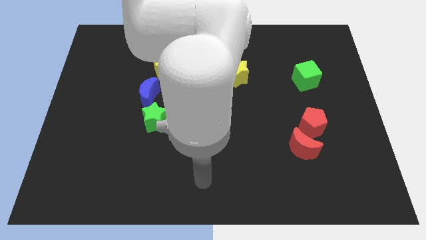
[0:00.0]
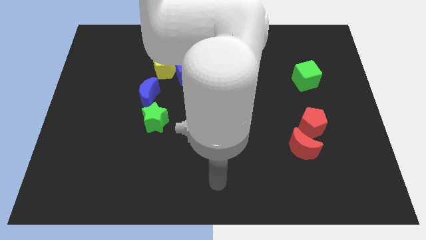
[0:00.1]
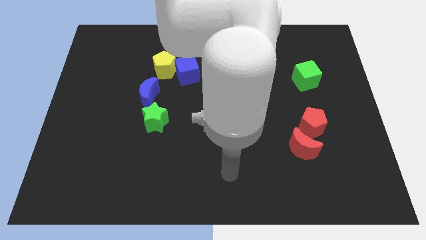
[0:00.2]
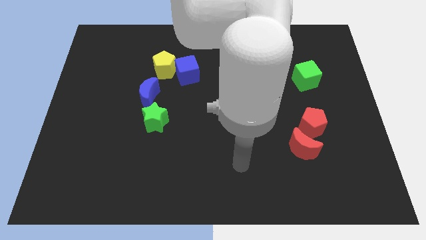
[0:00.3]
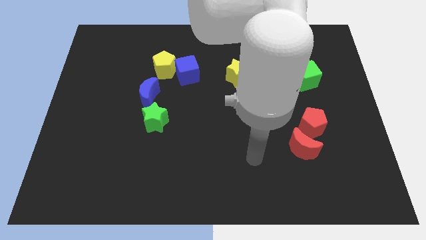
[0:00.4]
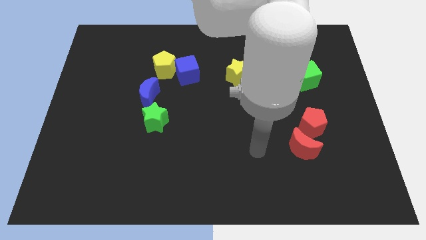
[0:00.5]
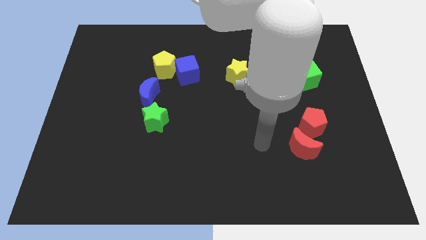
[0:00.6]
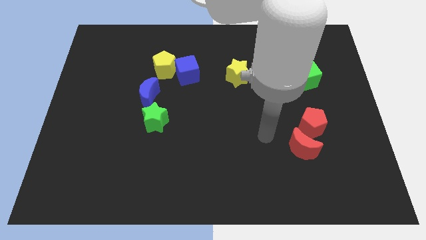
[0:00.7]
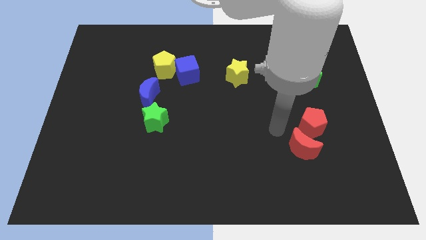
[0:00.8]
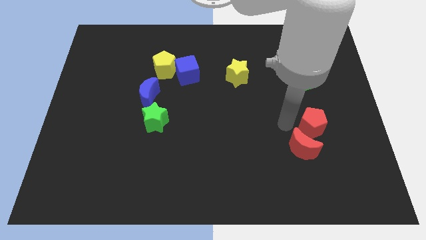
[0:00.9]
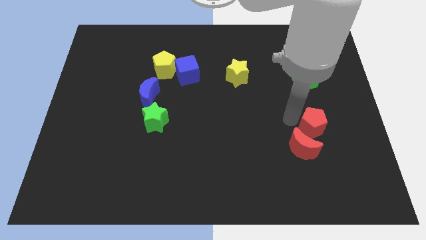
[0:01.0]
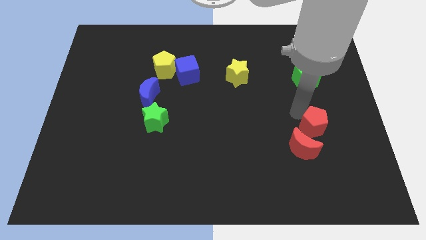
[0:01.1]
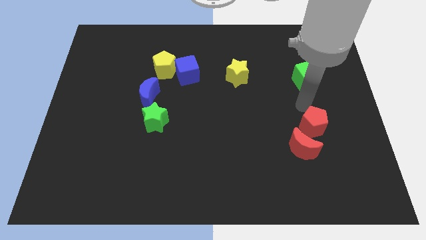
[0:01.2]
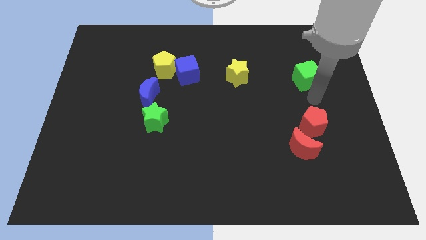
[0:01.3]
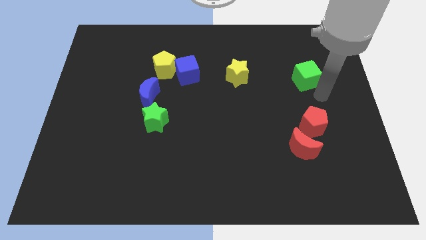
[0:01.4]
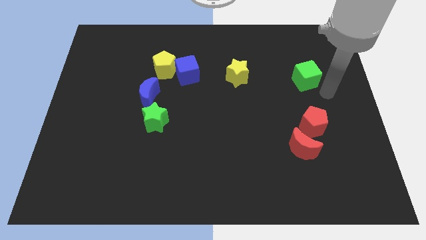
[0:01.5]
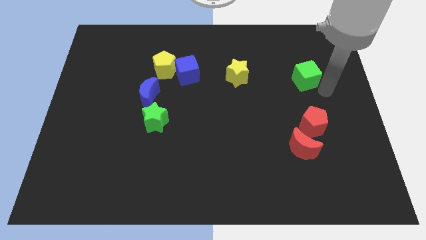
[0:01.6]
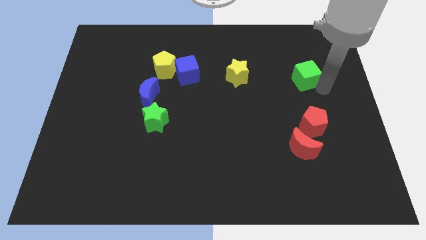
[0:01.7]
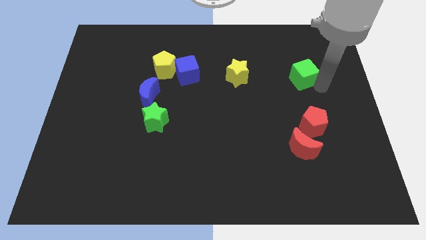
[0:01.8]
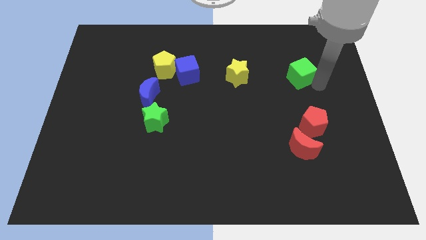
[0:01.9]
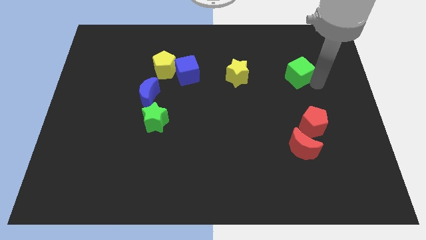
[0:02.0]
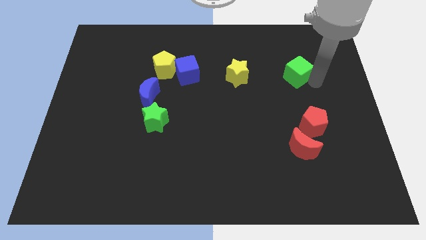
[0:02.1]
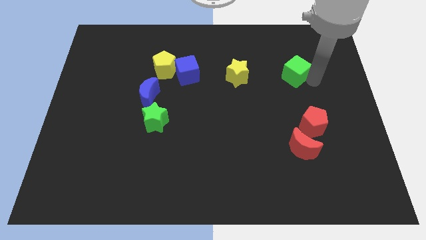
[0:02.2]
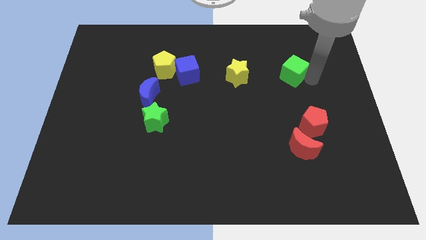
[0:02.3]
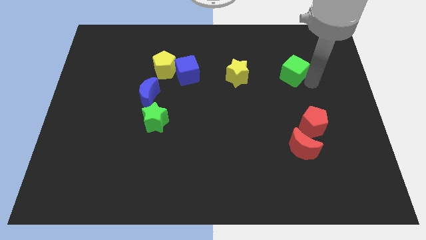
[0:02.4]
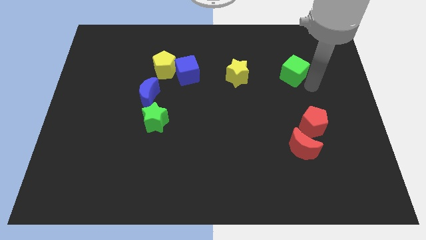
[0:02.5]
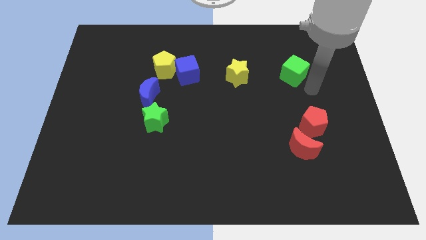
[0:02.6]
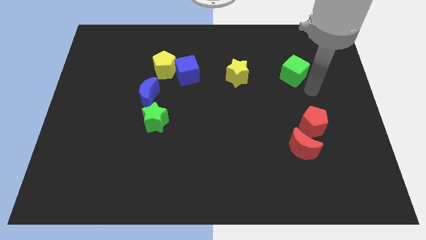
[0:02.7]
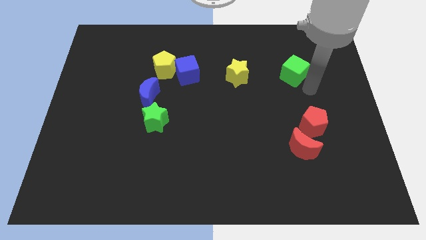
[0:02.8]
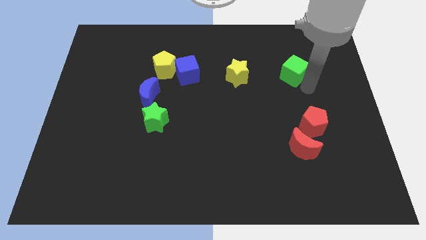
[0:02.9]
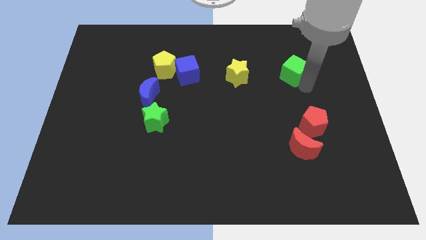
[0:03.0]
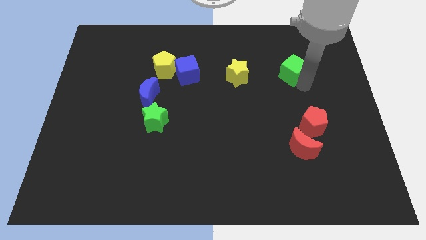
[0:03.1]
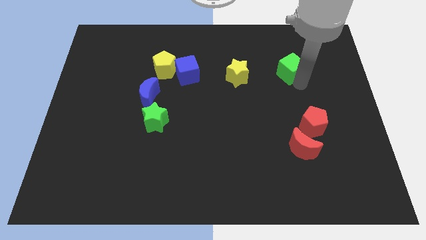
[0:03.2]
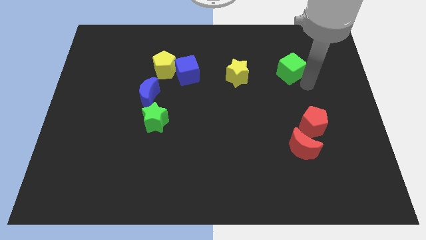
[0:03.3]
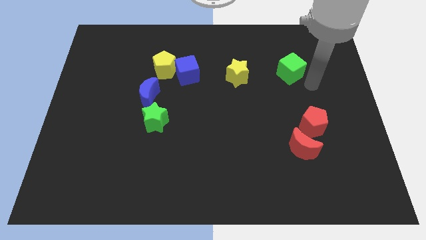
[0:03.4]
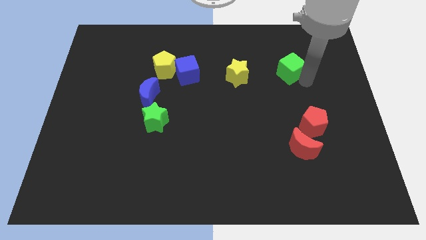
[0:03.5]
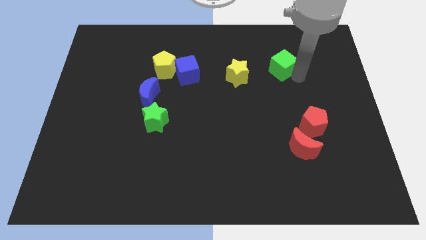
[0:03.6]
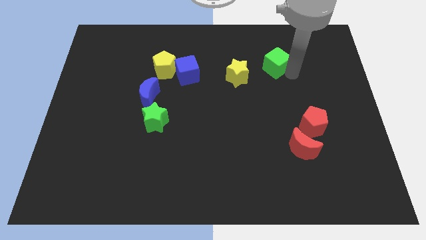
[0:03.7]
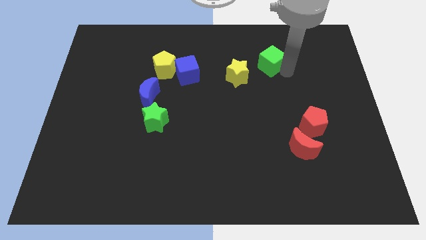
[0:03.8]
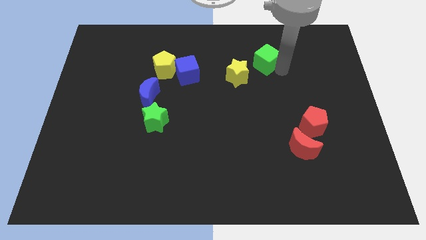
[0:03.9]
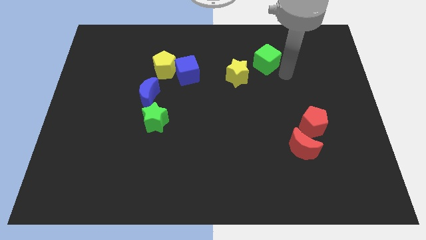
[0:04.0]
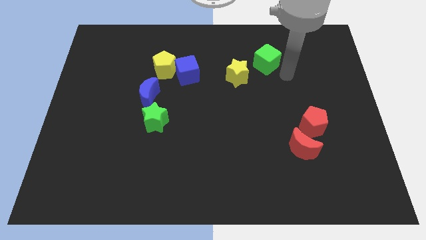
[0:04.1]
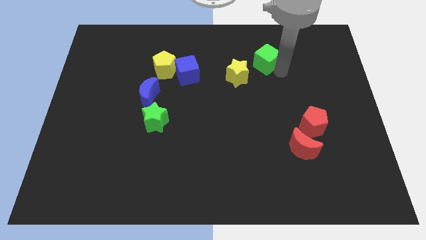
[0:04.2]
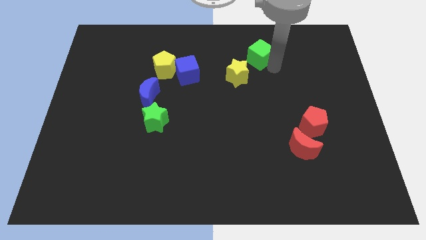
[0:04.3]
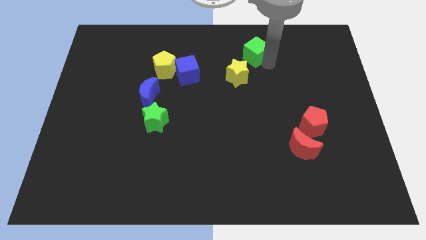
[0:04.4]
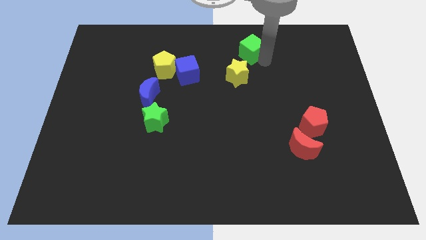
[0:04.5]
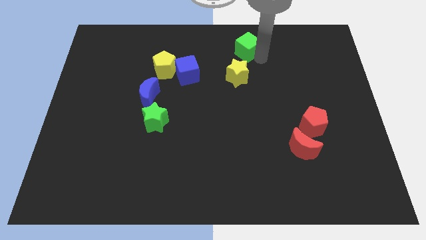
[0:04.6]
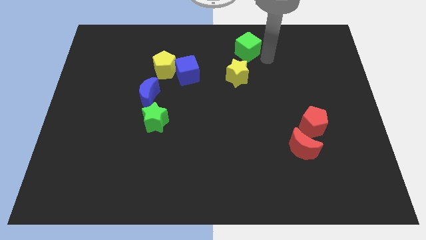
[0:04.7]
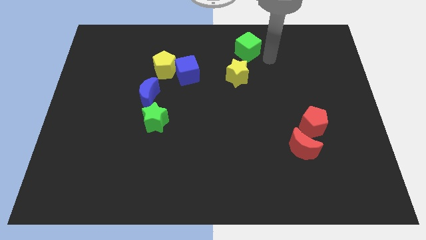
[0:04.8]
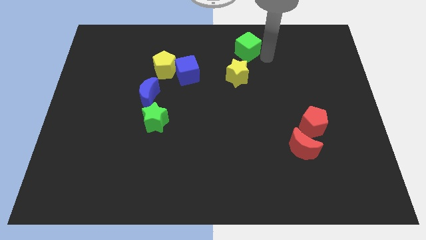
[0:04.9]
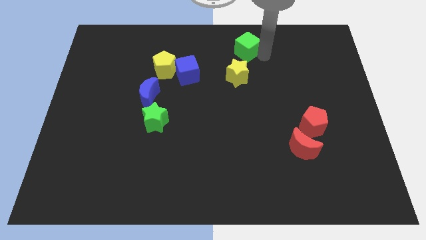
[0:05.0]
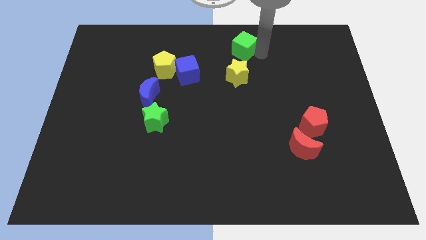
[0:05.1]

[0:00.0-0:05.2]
slide the green cube to the top side

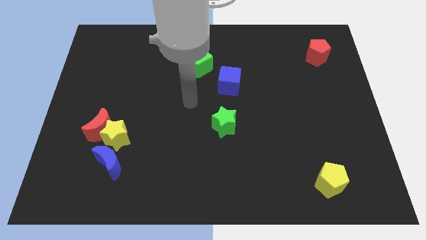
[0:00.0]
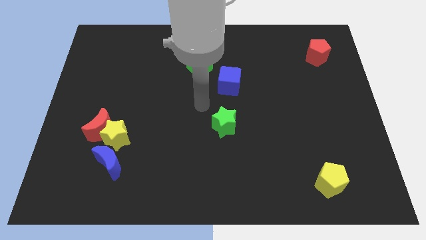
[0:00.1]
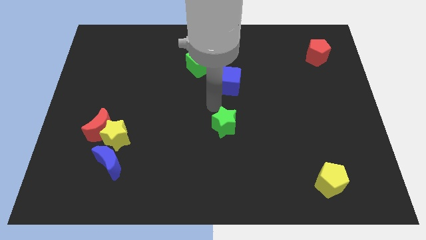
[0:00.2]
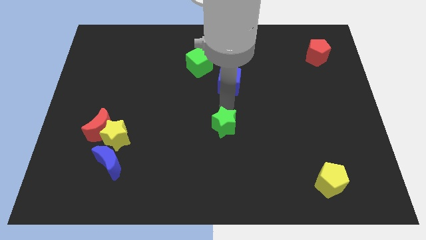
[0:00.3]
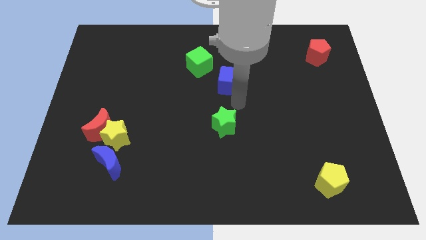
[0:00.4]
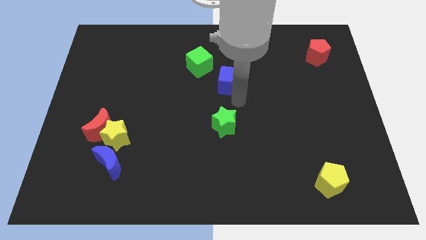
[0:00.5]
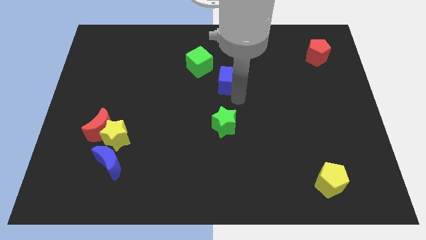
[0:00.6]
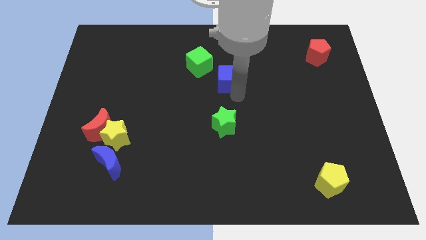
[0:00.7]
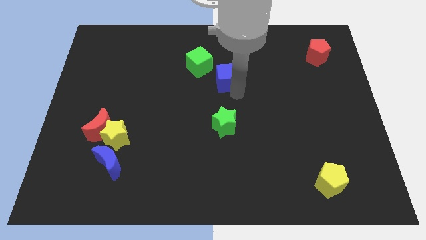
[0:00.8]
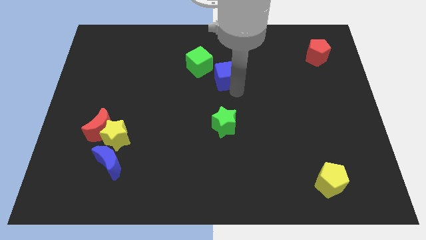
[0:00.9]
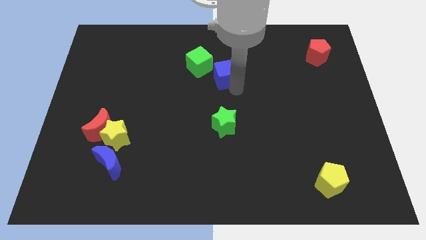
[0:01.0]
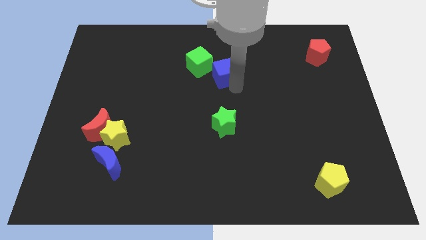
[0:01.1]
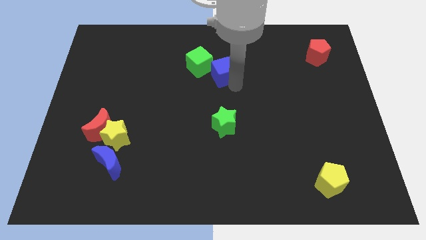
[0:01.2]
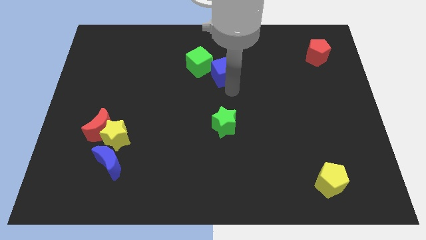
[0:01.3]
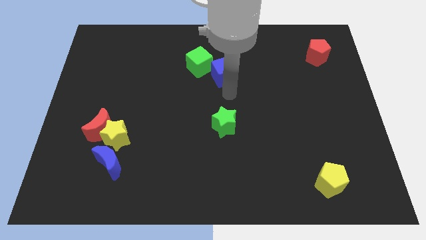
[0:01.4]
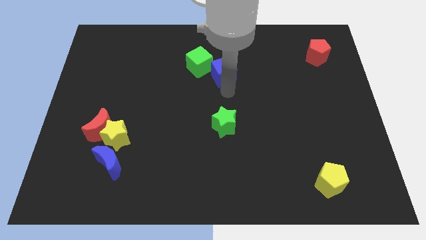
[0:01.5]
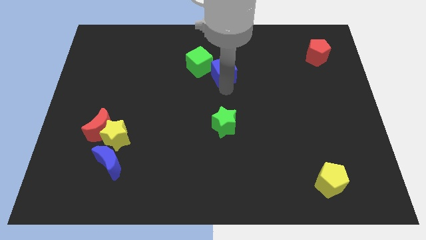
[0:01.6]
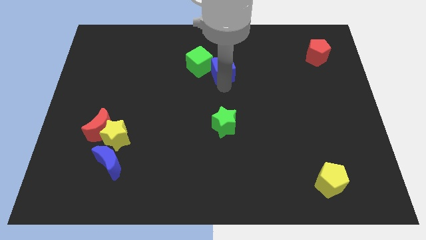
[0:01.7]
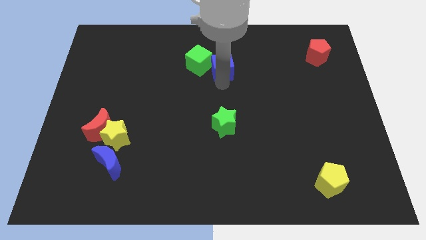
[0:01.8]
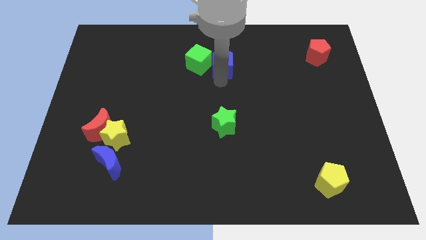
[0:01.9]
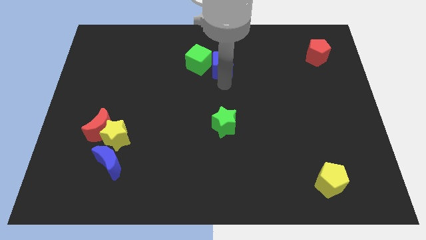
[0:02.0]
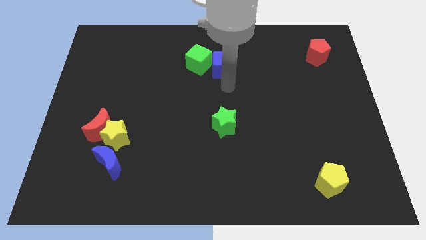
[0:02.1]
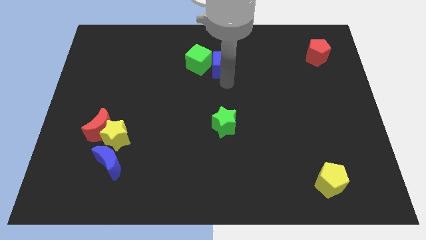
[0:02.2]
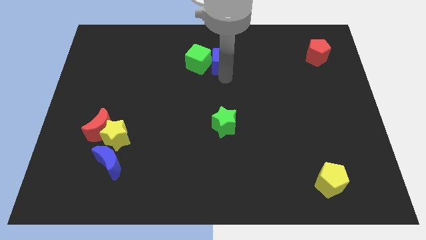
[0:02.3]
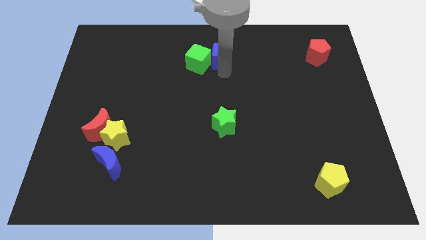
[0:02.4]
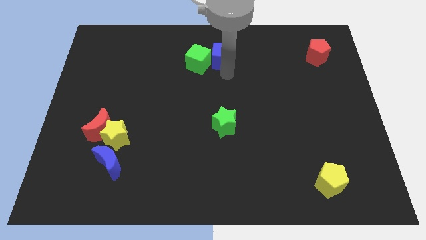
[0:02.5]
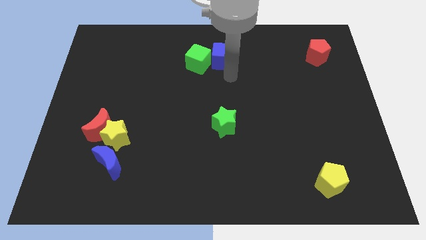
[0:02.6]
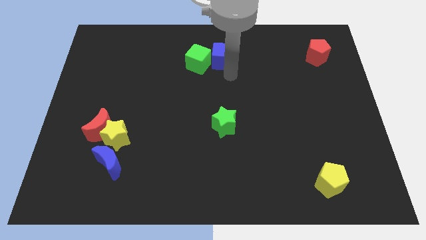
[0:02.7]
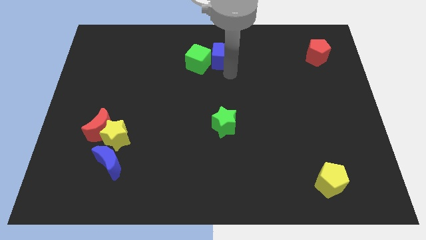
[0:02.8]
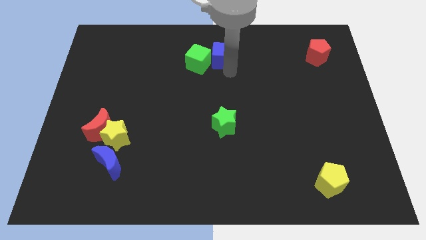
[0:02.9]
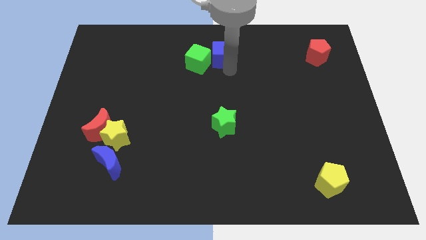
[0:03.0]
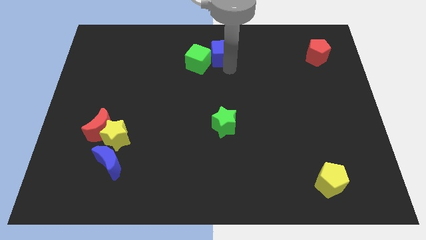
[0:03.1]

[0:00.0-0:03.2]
push the blue cube to the top
